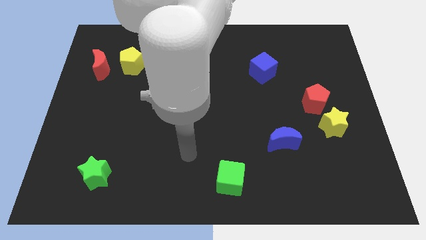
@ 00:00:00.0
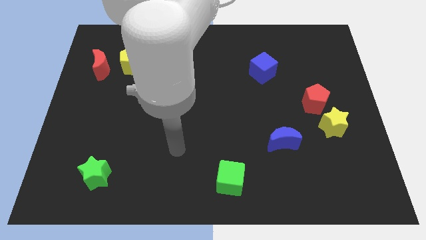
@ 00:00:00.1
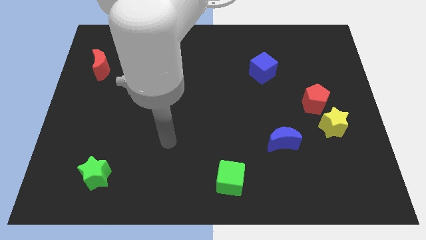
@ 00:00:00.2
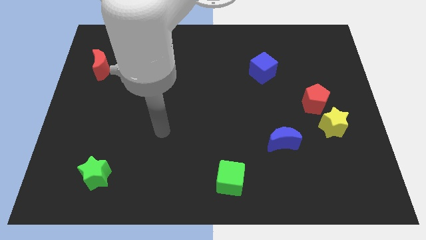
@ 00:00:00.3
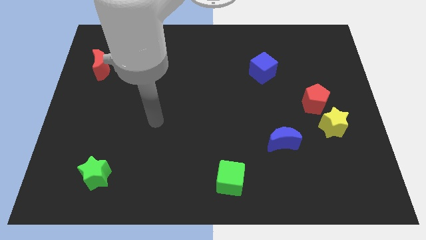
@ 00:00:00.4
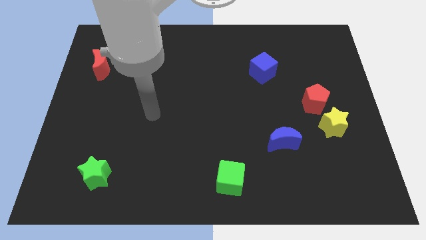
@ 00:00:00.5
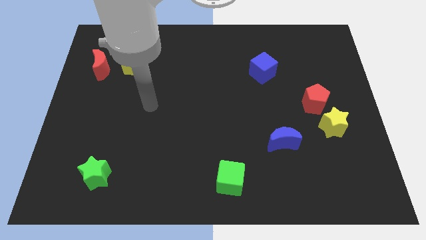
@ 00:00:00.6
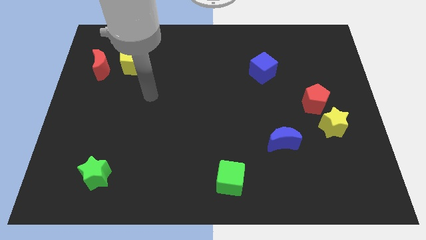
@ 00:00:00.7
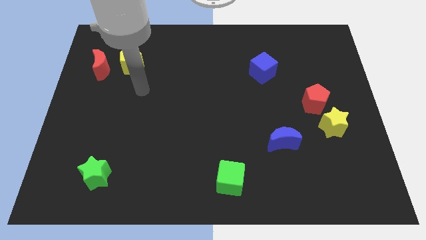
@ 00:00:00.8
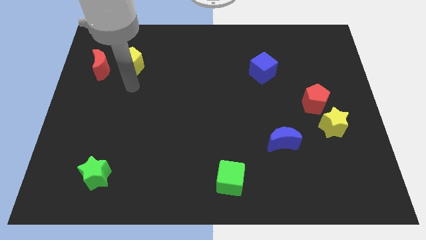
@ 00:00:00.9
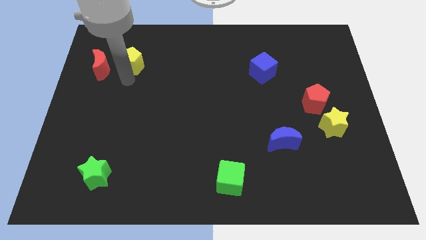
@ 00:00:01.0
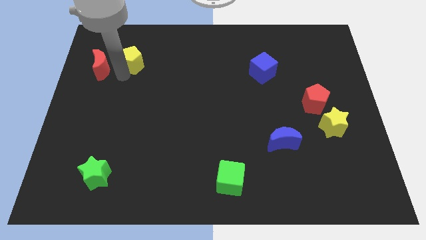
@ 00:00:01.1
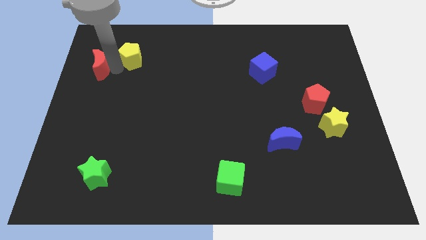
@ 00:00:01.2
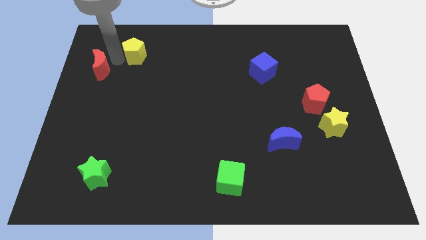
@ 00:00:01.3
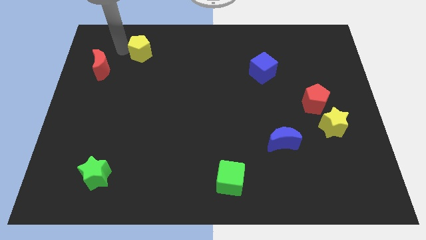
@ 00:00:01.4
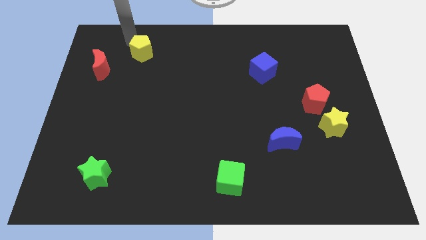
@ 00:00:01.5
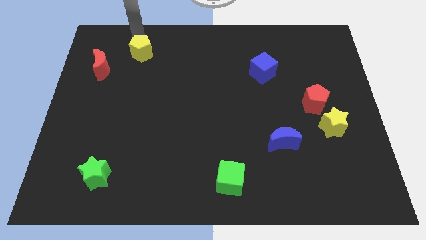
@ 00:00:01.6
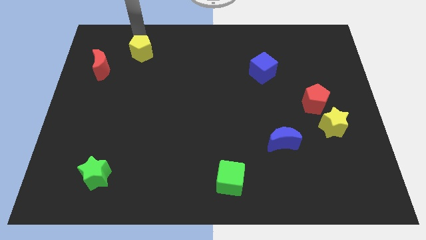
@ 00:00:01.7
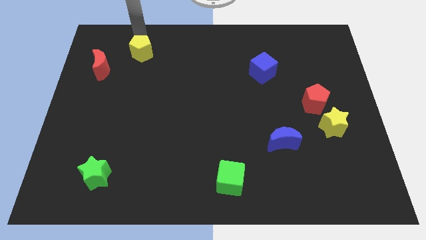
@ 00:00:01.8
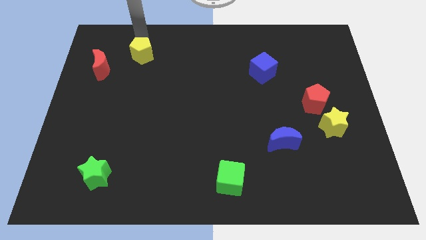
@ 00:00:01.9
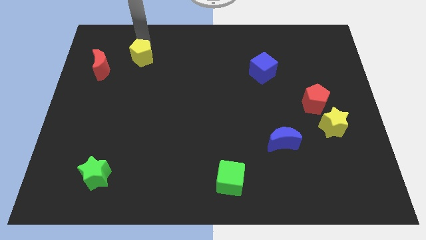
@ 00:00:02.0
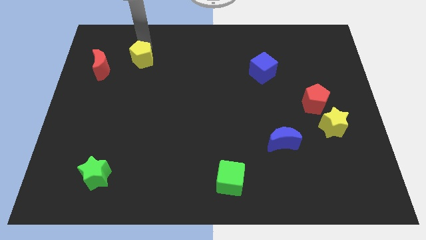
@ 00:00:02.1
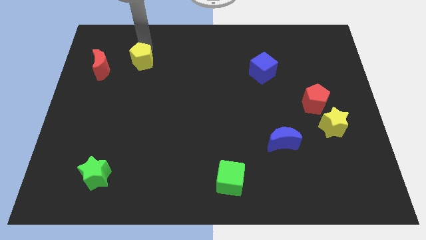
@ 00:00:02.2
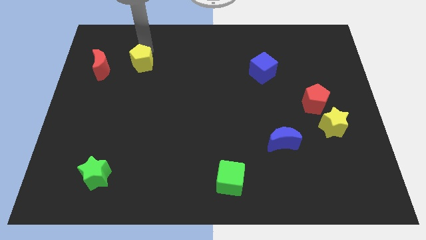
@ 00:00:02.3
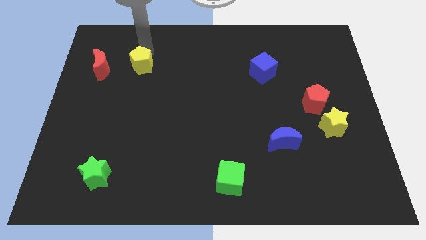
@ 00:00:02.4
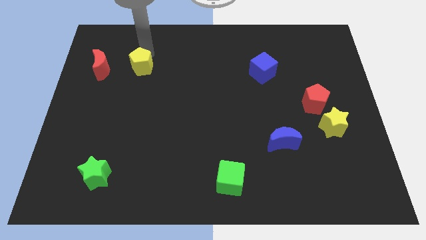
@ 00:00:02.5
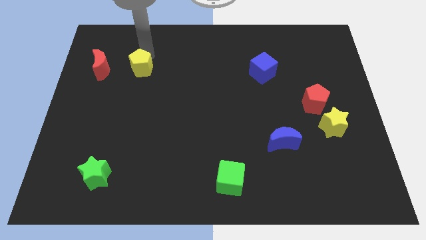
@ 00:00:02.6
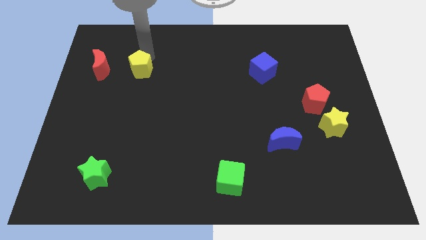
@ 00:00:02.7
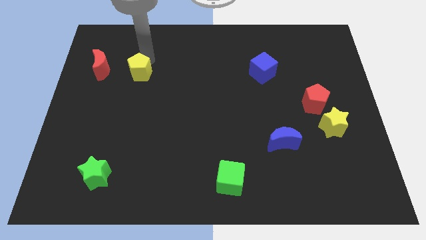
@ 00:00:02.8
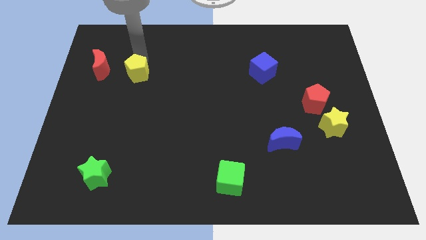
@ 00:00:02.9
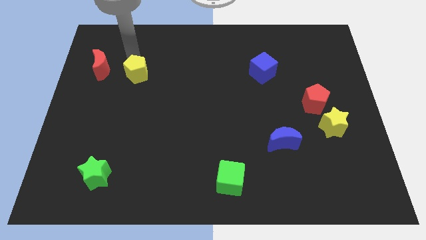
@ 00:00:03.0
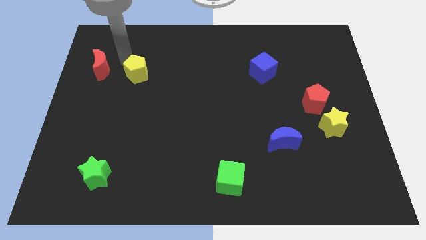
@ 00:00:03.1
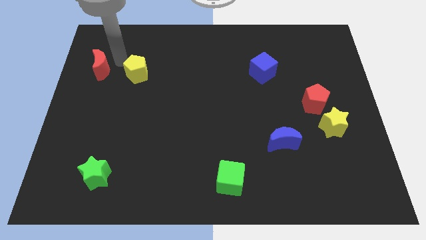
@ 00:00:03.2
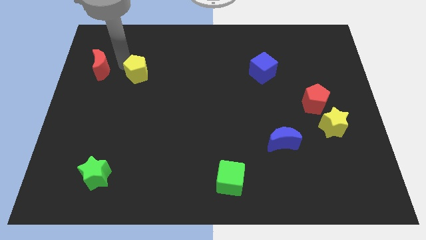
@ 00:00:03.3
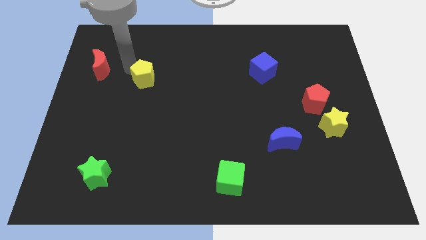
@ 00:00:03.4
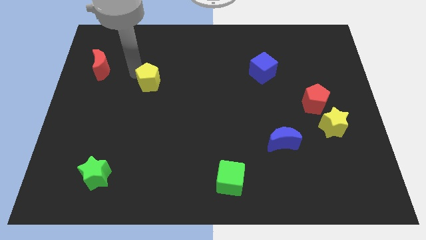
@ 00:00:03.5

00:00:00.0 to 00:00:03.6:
slide the yellow pentagon a bit down and then right

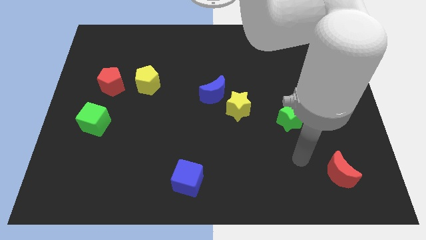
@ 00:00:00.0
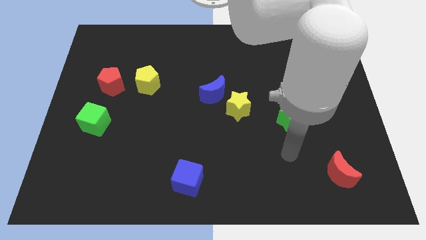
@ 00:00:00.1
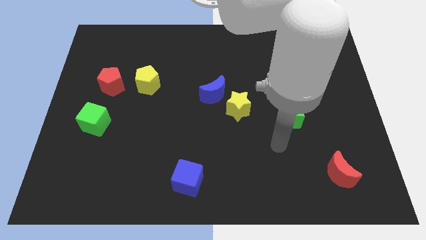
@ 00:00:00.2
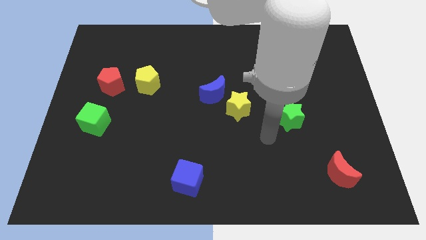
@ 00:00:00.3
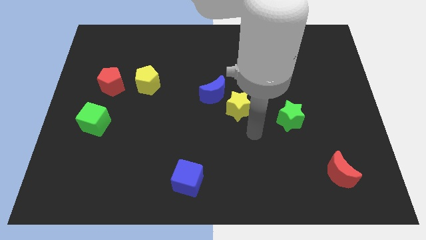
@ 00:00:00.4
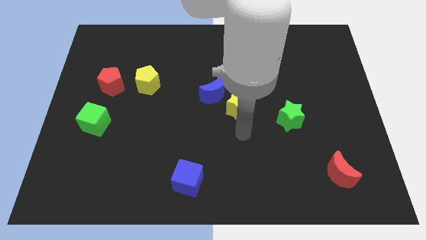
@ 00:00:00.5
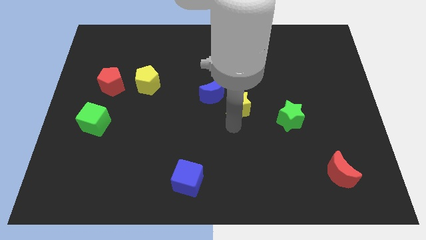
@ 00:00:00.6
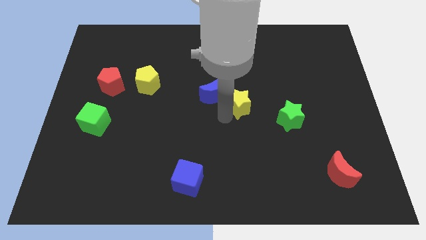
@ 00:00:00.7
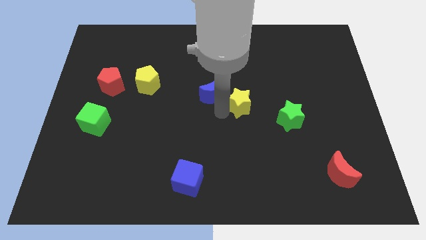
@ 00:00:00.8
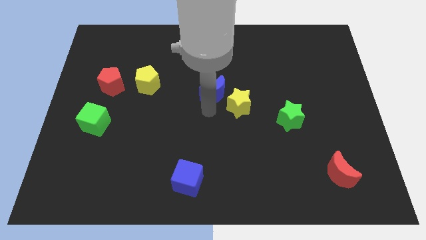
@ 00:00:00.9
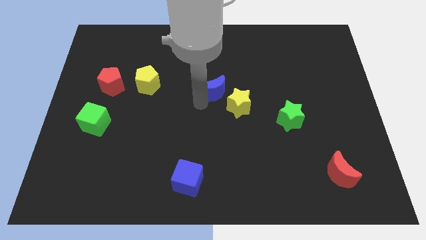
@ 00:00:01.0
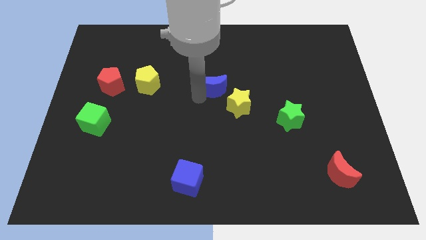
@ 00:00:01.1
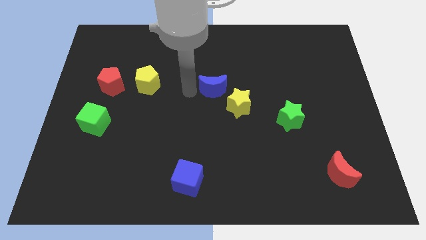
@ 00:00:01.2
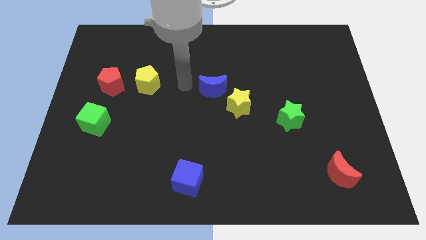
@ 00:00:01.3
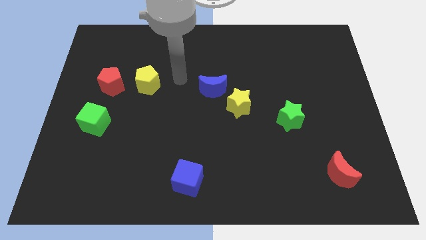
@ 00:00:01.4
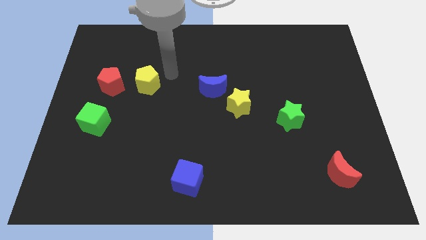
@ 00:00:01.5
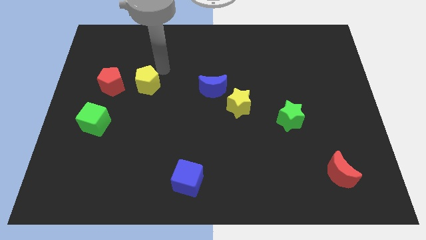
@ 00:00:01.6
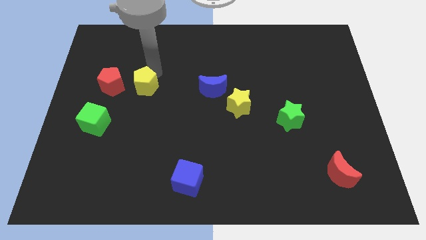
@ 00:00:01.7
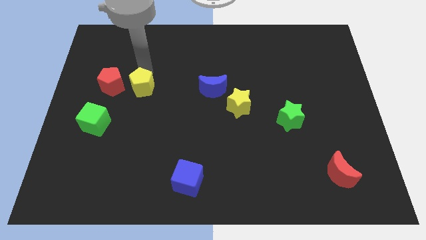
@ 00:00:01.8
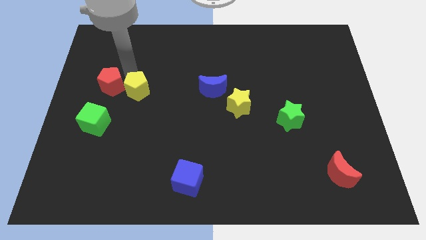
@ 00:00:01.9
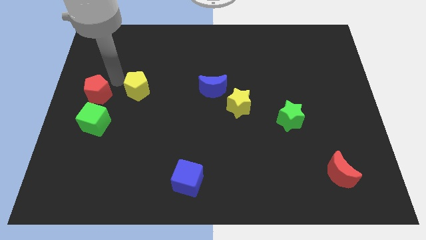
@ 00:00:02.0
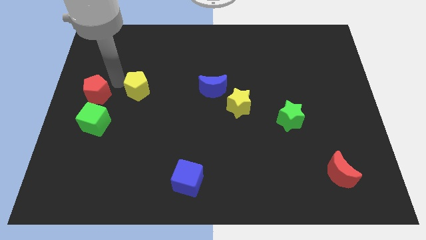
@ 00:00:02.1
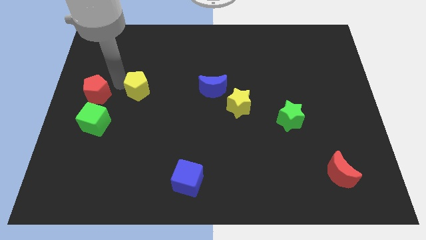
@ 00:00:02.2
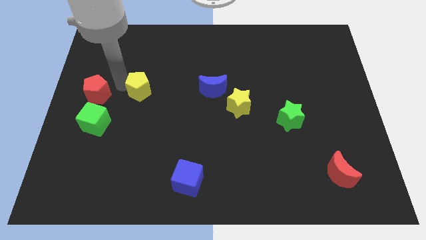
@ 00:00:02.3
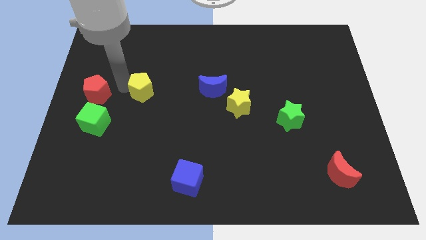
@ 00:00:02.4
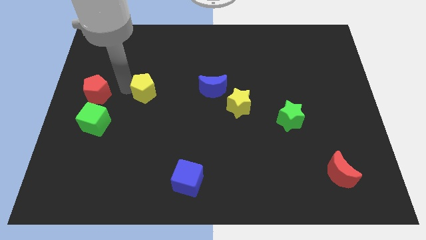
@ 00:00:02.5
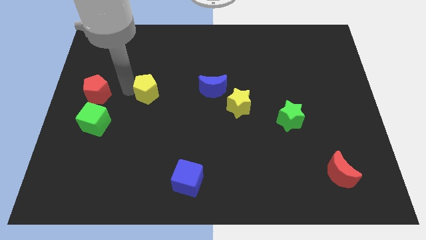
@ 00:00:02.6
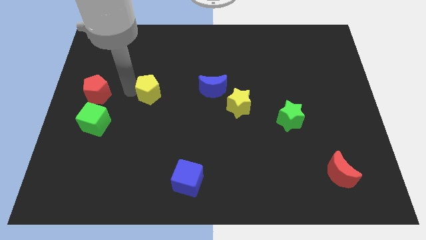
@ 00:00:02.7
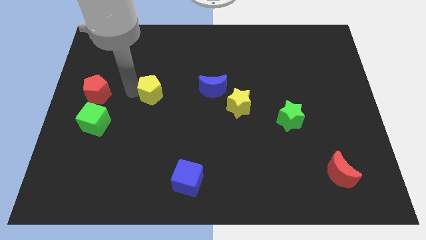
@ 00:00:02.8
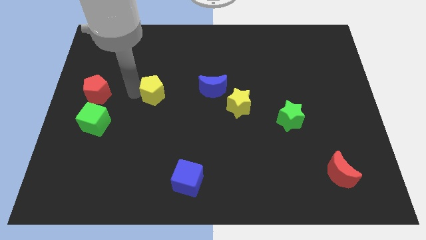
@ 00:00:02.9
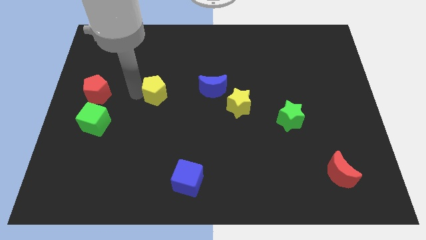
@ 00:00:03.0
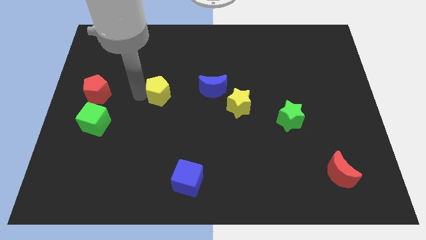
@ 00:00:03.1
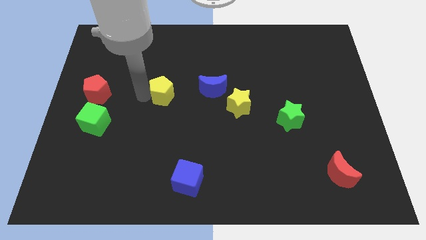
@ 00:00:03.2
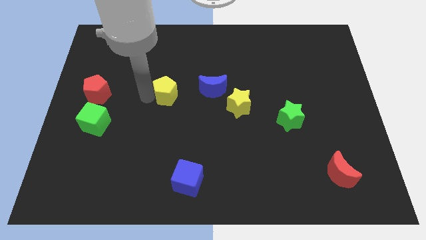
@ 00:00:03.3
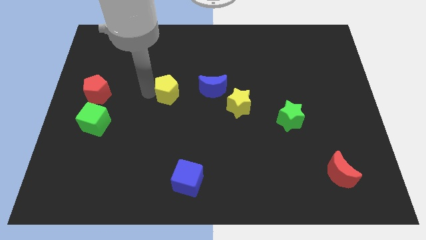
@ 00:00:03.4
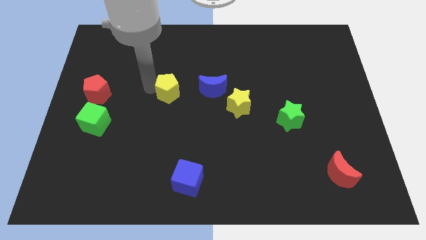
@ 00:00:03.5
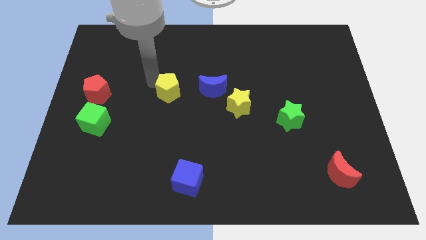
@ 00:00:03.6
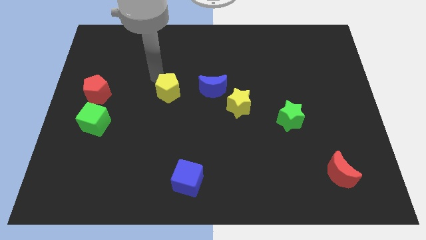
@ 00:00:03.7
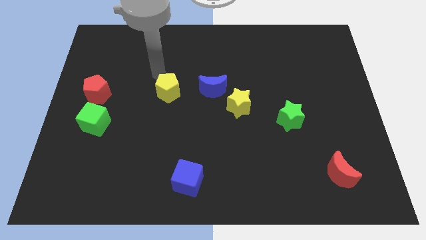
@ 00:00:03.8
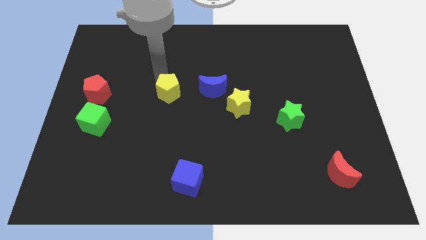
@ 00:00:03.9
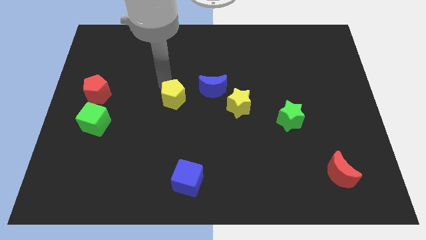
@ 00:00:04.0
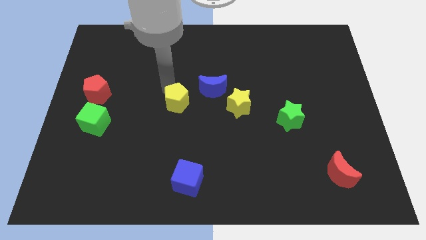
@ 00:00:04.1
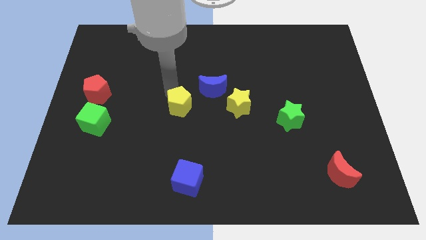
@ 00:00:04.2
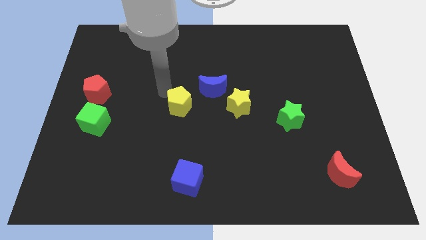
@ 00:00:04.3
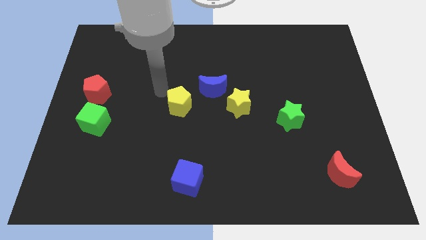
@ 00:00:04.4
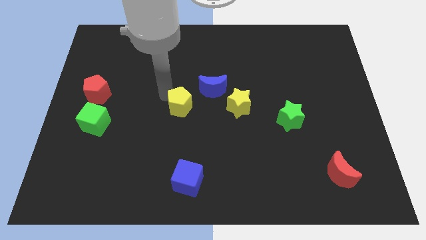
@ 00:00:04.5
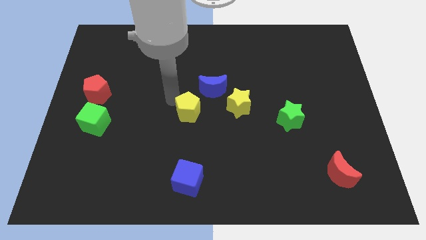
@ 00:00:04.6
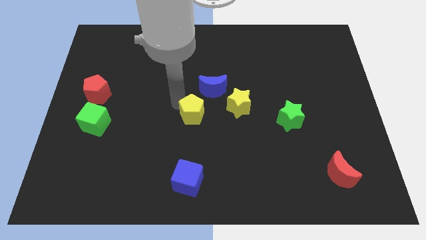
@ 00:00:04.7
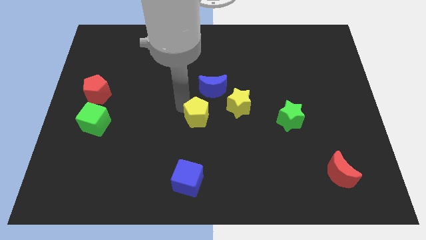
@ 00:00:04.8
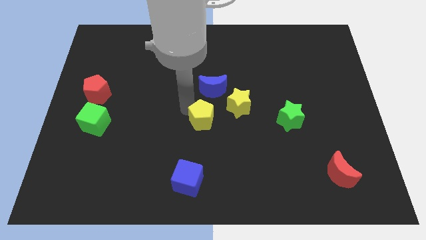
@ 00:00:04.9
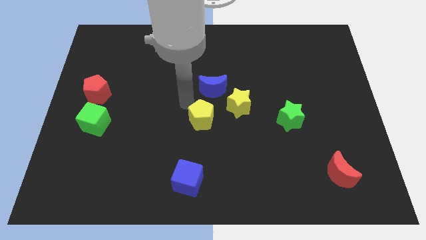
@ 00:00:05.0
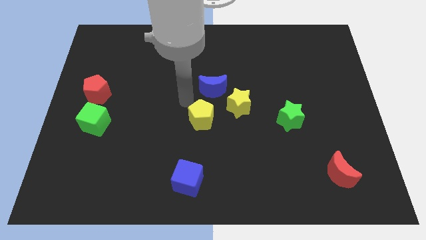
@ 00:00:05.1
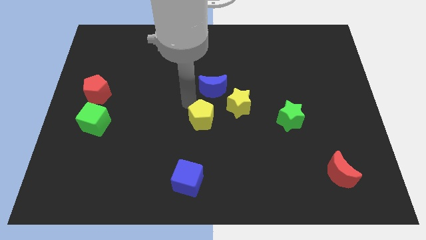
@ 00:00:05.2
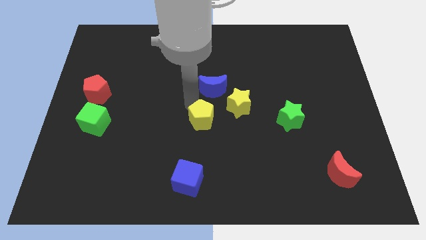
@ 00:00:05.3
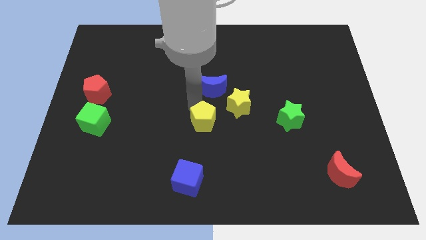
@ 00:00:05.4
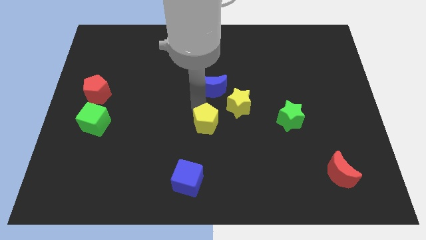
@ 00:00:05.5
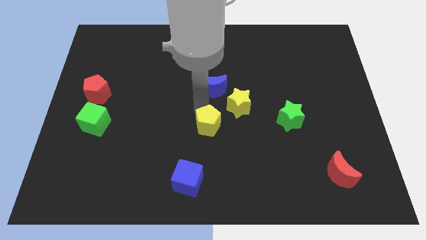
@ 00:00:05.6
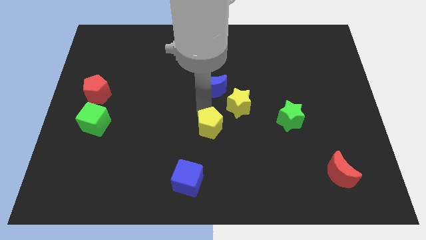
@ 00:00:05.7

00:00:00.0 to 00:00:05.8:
slide the yellow pentagon diagonally down and right
